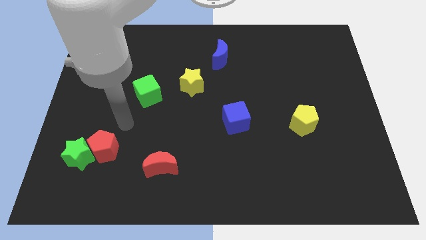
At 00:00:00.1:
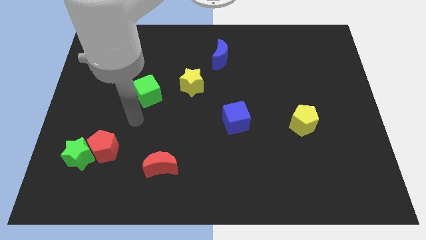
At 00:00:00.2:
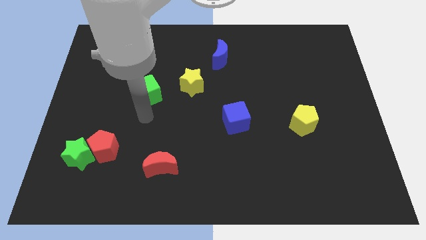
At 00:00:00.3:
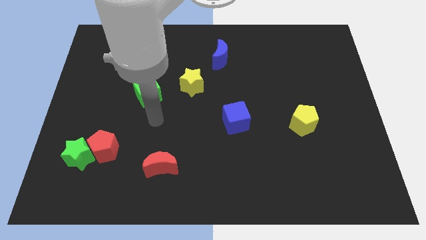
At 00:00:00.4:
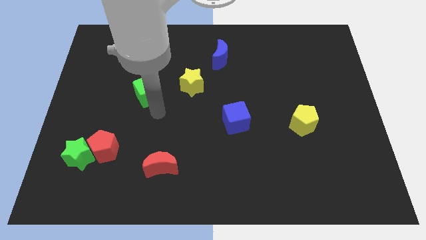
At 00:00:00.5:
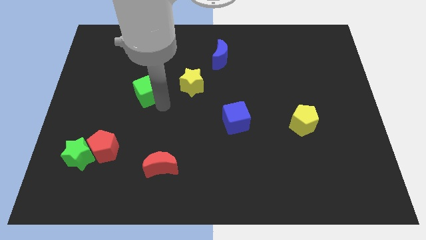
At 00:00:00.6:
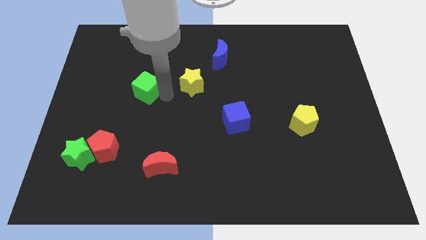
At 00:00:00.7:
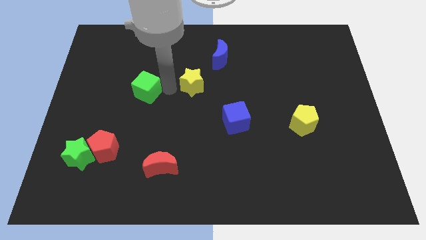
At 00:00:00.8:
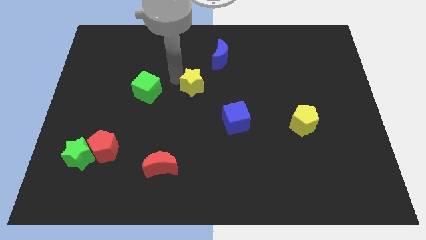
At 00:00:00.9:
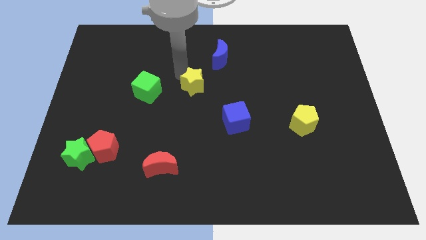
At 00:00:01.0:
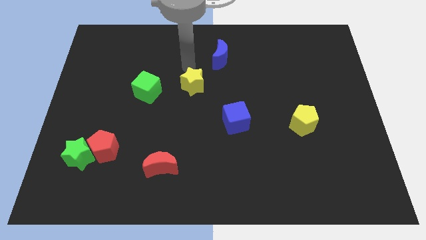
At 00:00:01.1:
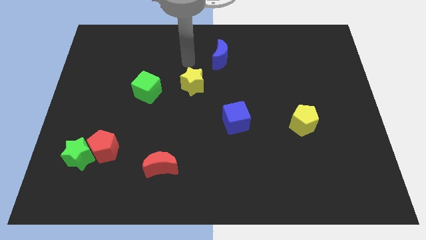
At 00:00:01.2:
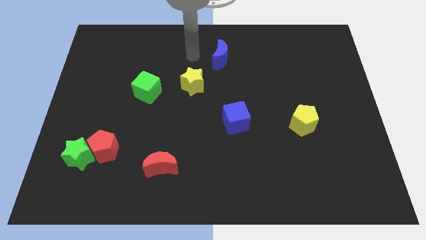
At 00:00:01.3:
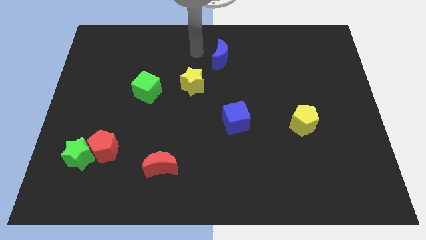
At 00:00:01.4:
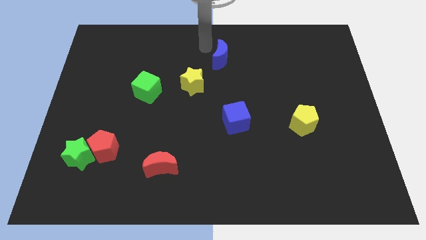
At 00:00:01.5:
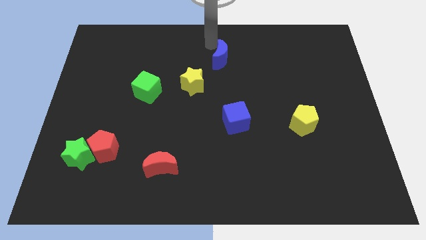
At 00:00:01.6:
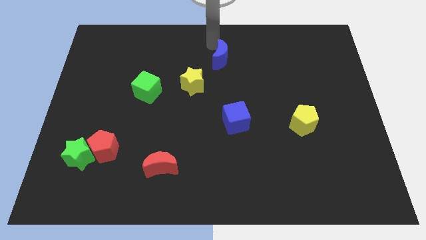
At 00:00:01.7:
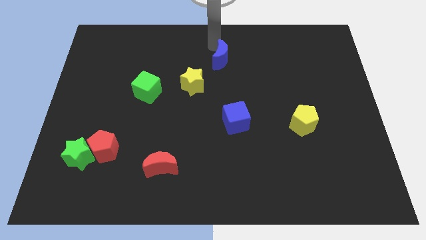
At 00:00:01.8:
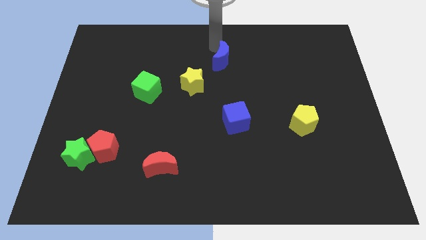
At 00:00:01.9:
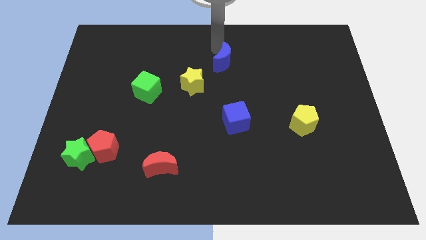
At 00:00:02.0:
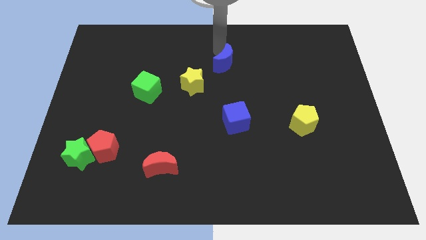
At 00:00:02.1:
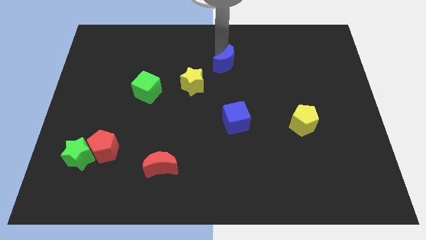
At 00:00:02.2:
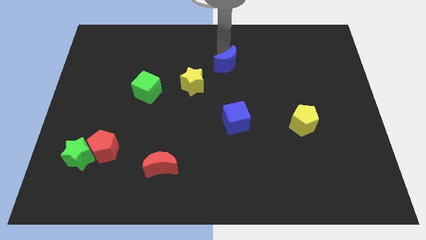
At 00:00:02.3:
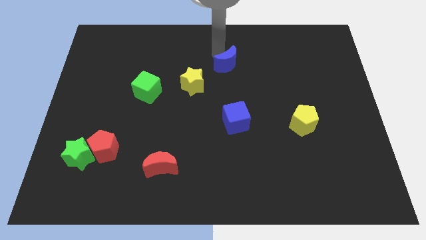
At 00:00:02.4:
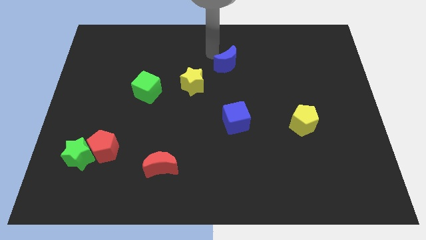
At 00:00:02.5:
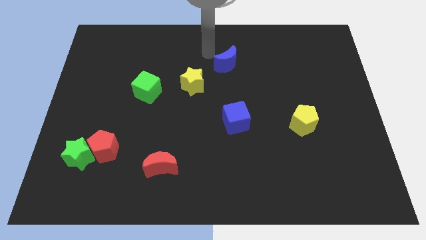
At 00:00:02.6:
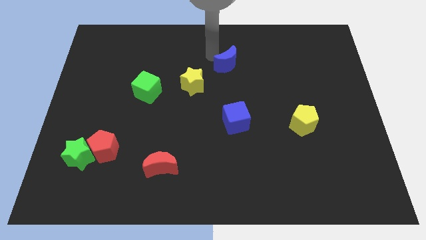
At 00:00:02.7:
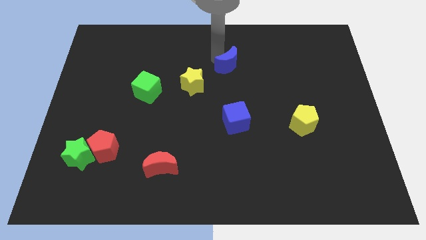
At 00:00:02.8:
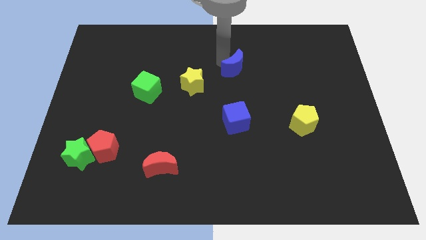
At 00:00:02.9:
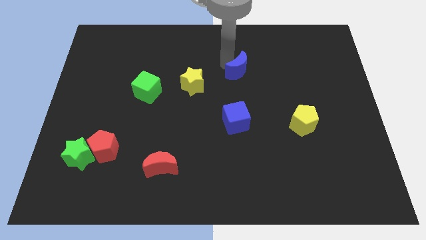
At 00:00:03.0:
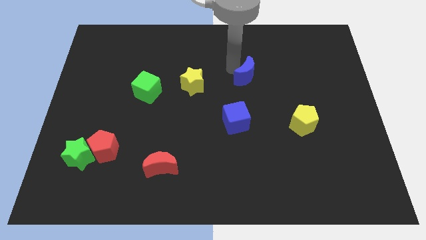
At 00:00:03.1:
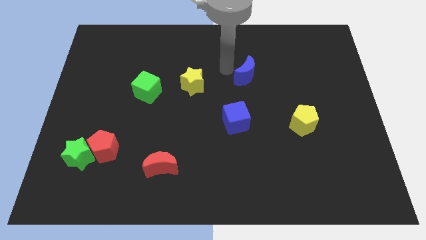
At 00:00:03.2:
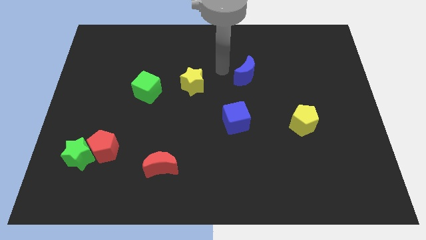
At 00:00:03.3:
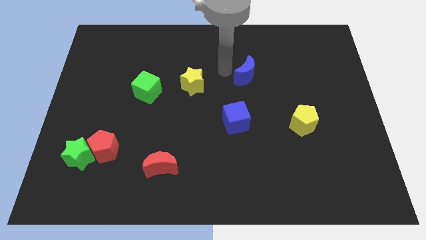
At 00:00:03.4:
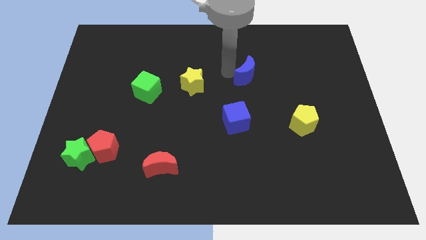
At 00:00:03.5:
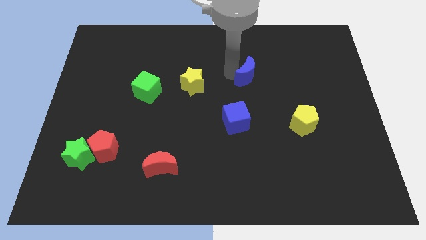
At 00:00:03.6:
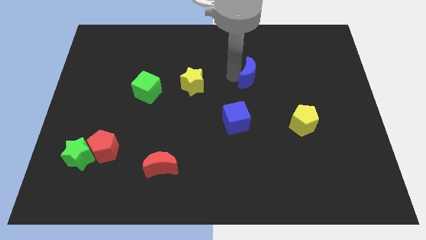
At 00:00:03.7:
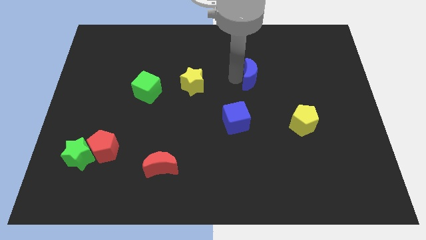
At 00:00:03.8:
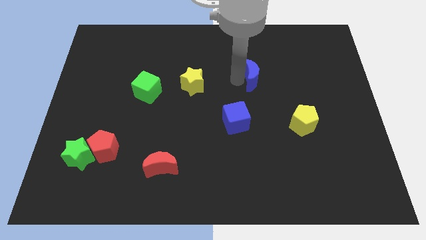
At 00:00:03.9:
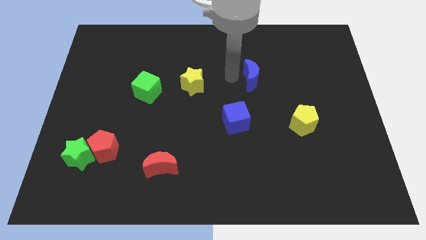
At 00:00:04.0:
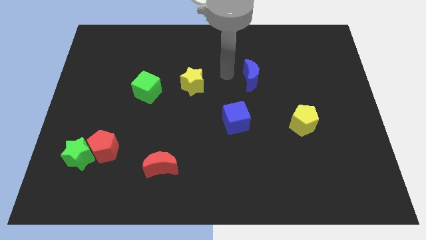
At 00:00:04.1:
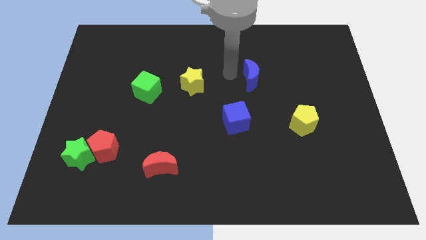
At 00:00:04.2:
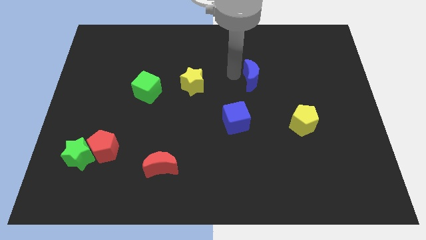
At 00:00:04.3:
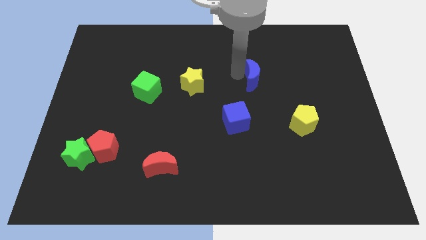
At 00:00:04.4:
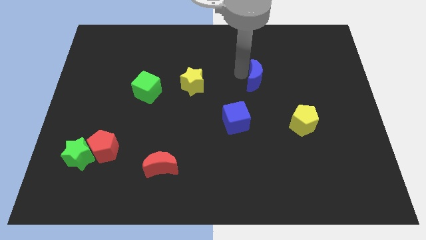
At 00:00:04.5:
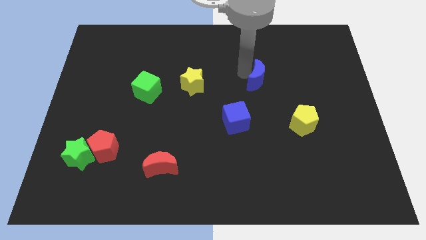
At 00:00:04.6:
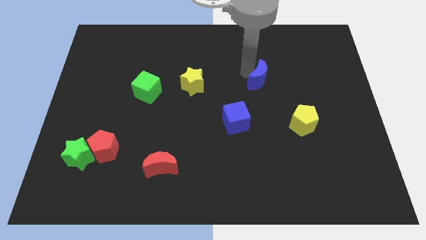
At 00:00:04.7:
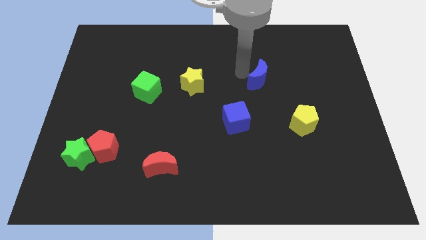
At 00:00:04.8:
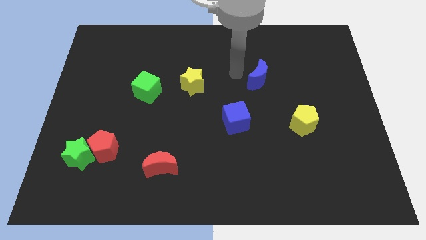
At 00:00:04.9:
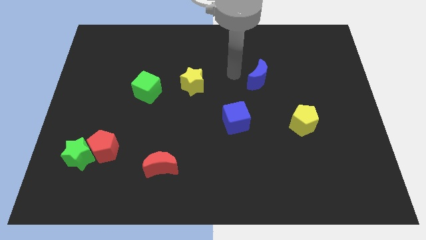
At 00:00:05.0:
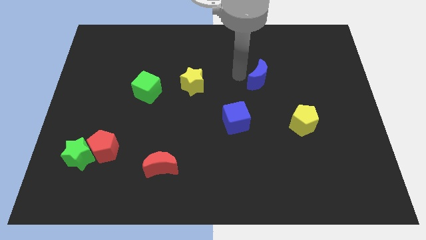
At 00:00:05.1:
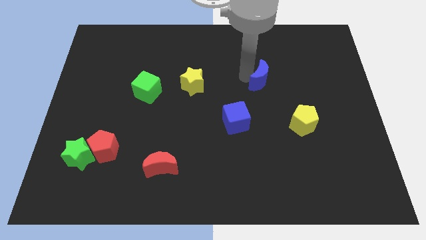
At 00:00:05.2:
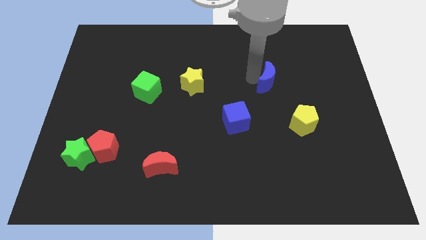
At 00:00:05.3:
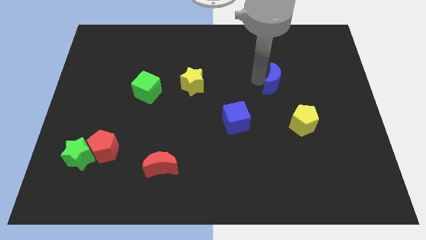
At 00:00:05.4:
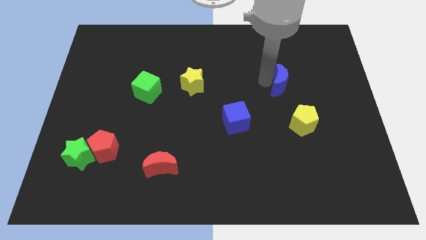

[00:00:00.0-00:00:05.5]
slide the blue moon to the top of the yellow pentagon

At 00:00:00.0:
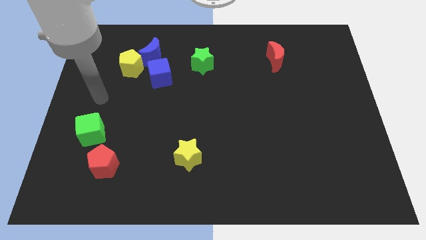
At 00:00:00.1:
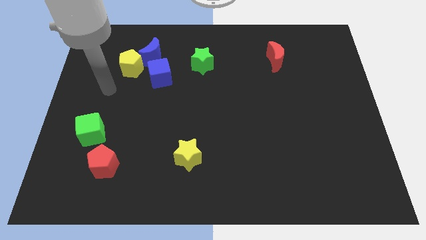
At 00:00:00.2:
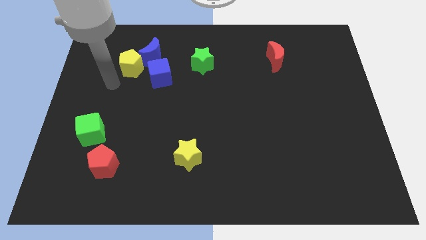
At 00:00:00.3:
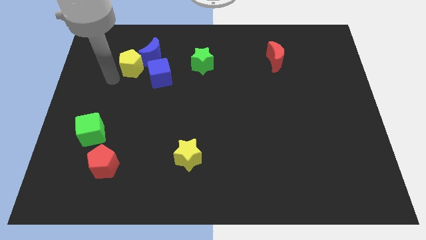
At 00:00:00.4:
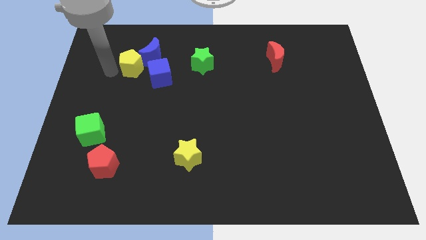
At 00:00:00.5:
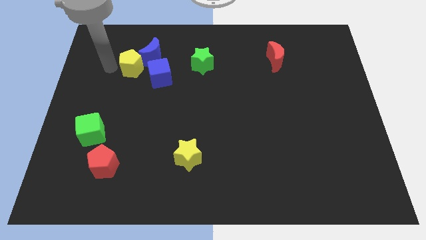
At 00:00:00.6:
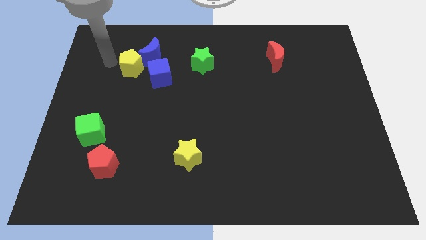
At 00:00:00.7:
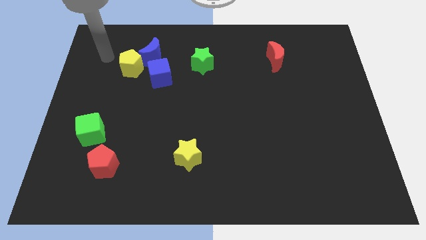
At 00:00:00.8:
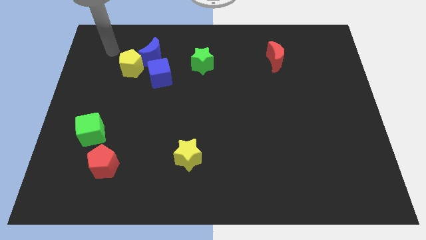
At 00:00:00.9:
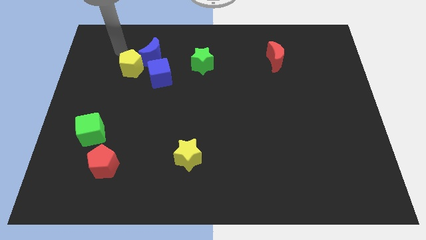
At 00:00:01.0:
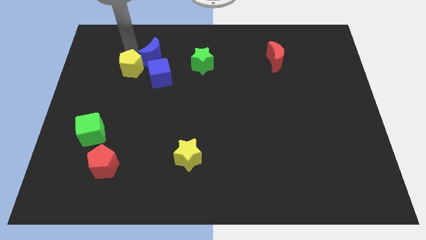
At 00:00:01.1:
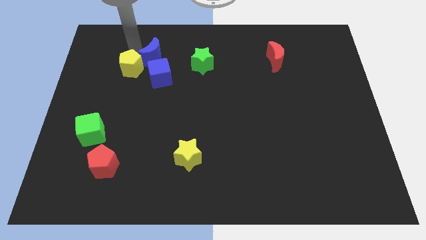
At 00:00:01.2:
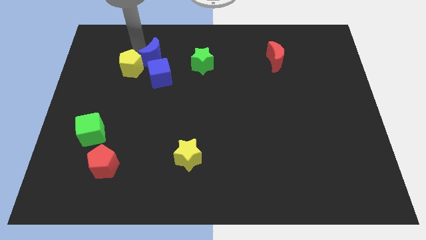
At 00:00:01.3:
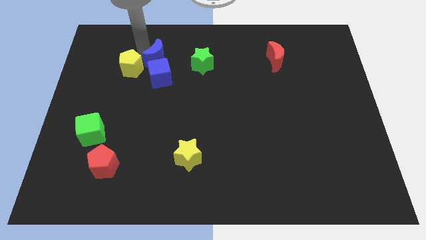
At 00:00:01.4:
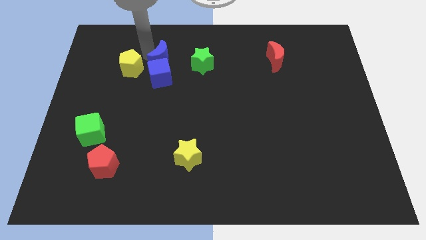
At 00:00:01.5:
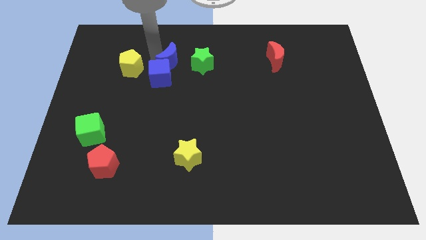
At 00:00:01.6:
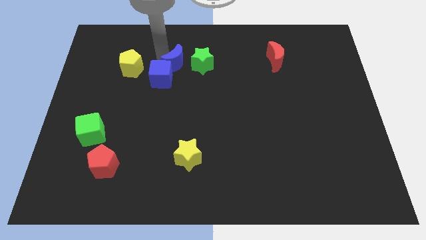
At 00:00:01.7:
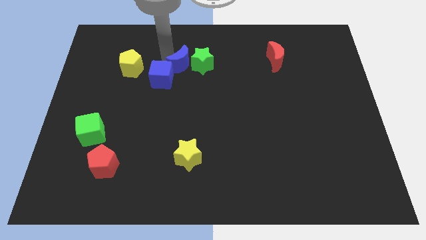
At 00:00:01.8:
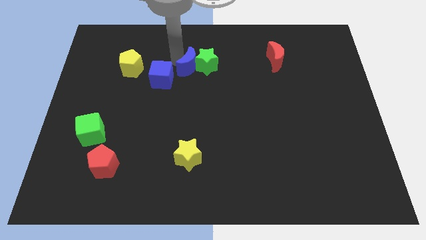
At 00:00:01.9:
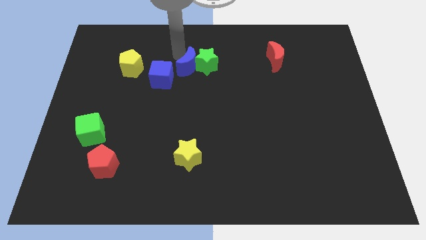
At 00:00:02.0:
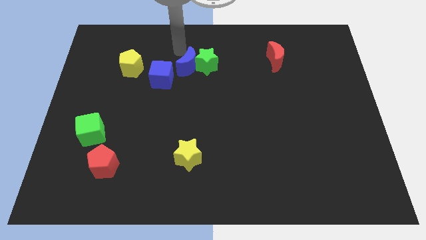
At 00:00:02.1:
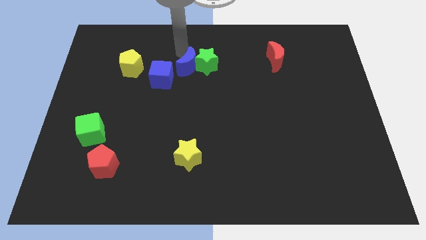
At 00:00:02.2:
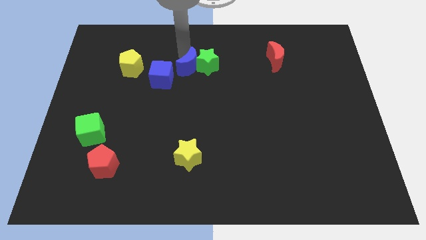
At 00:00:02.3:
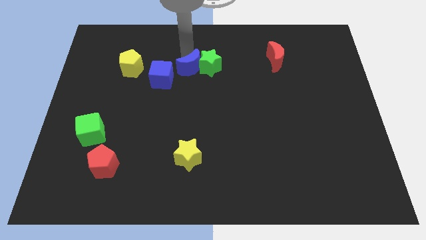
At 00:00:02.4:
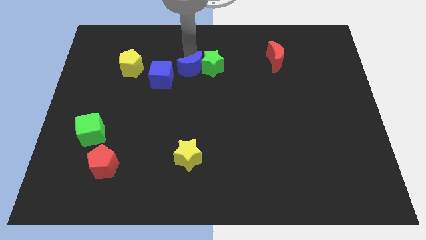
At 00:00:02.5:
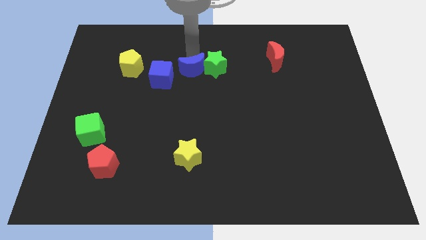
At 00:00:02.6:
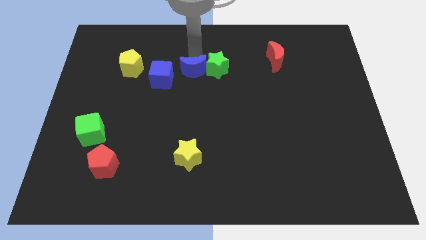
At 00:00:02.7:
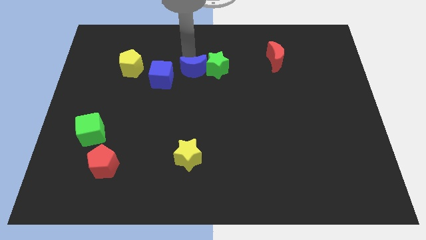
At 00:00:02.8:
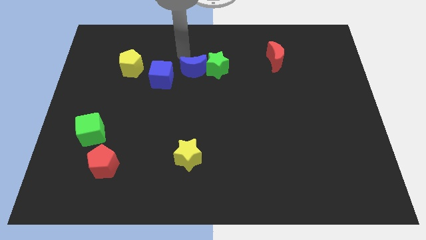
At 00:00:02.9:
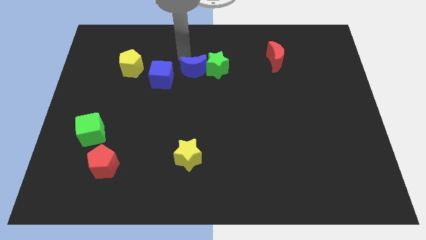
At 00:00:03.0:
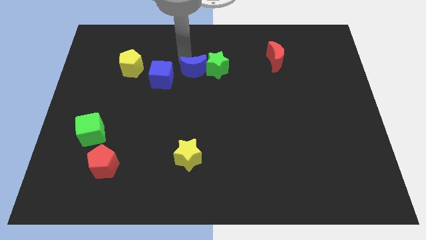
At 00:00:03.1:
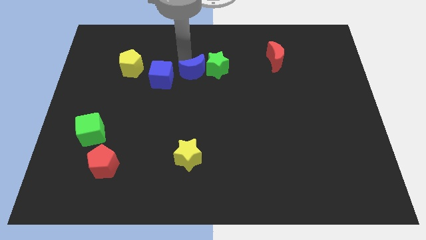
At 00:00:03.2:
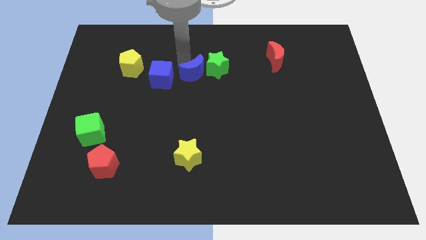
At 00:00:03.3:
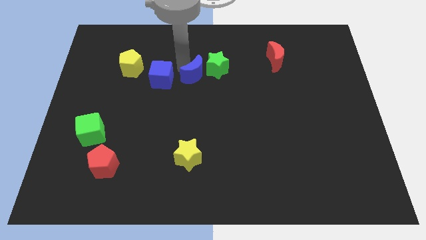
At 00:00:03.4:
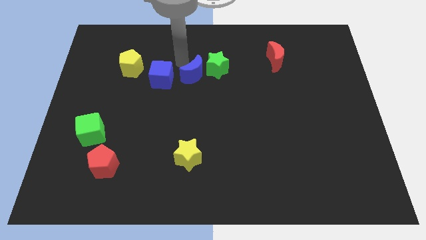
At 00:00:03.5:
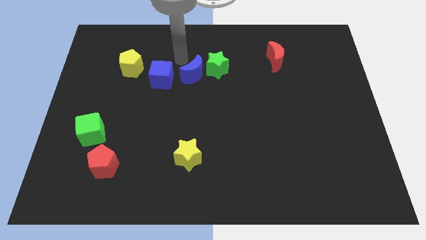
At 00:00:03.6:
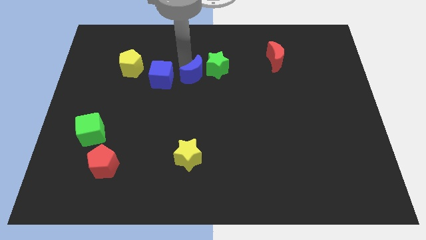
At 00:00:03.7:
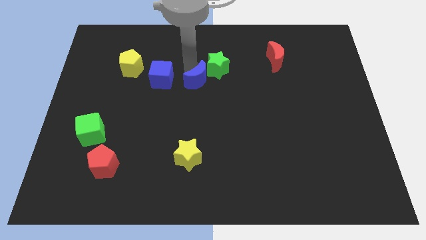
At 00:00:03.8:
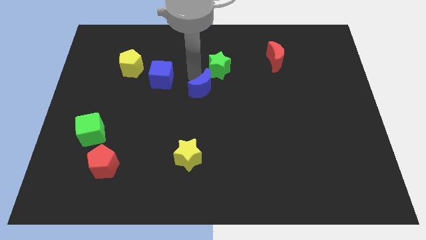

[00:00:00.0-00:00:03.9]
push the blue moon to the bottom of the green star
